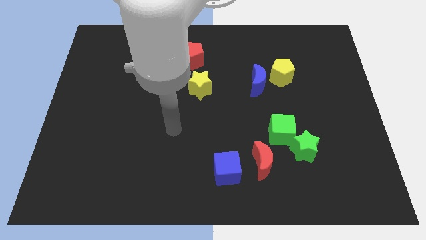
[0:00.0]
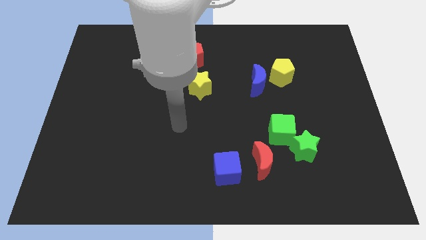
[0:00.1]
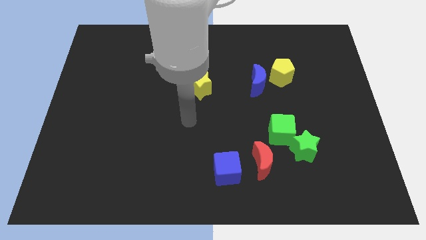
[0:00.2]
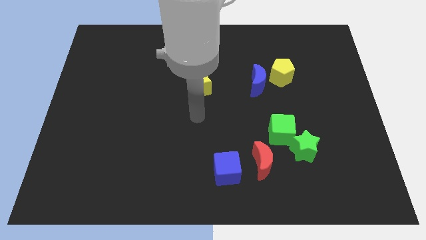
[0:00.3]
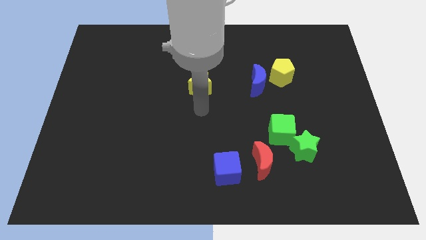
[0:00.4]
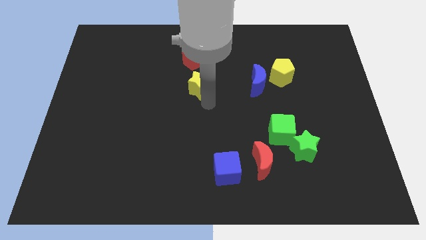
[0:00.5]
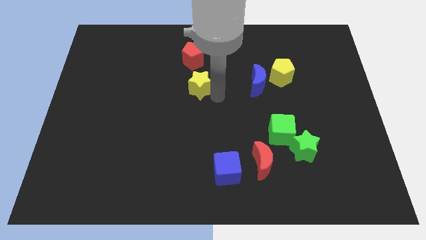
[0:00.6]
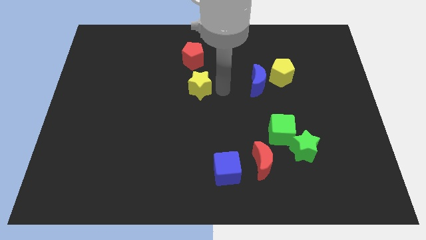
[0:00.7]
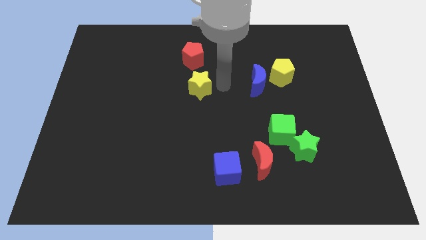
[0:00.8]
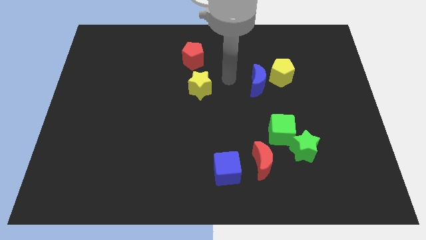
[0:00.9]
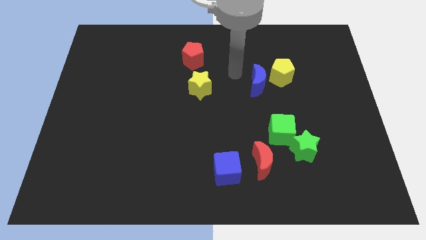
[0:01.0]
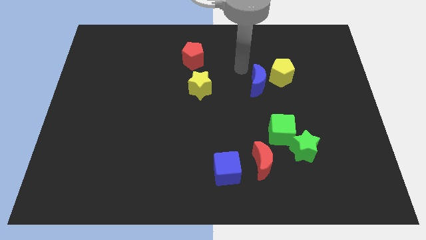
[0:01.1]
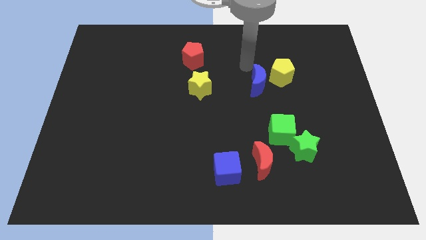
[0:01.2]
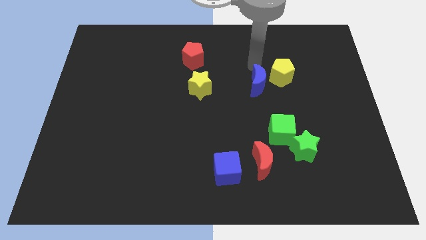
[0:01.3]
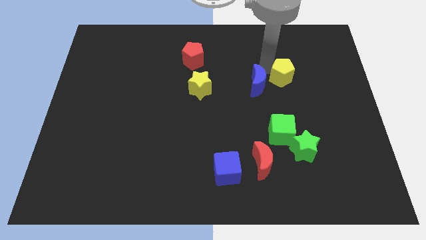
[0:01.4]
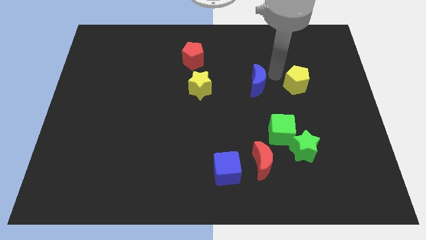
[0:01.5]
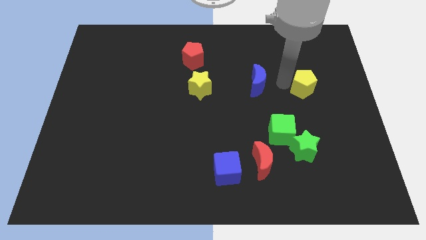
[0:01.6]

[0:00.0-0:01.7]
pull the blue moon apart from the yellow pentagon

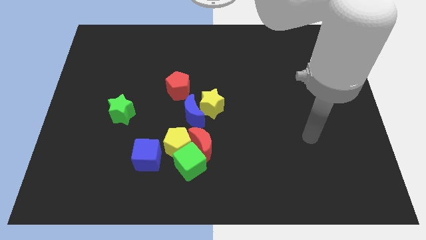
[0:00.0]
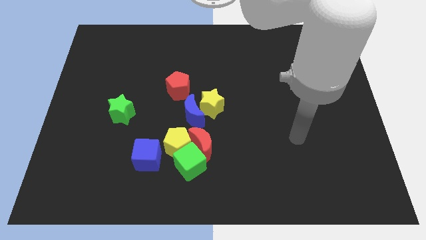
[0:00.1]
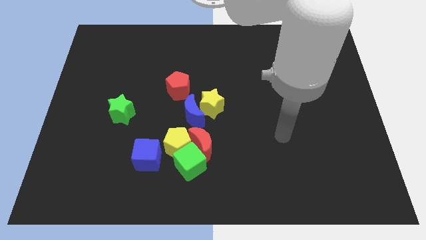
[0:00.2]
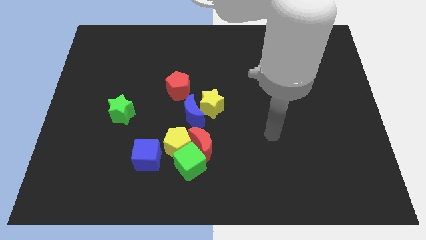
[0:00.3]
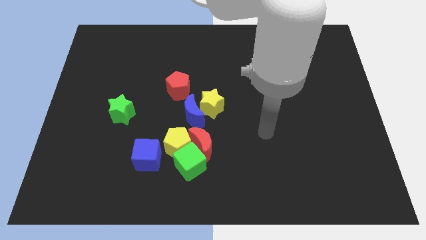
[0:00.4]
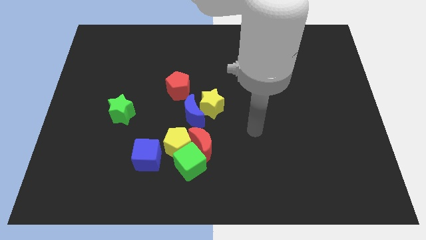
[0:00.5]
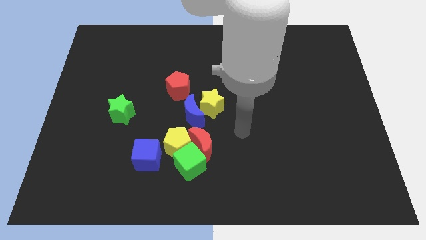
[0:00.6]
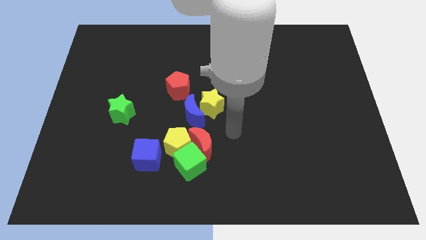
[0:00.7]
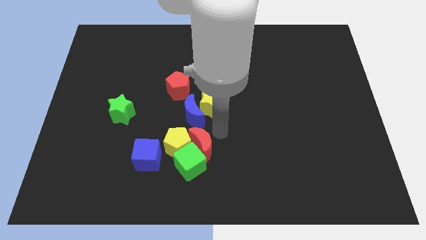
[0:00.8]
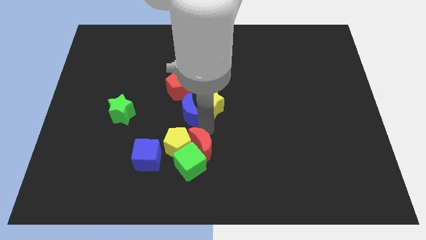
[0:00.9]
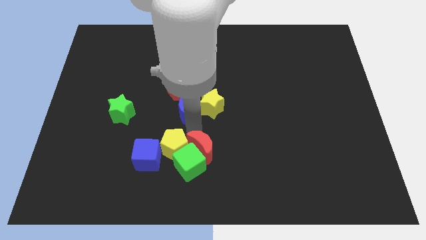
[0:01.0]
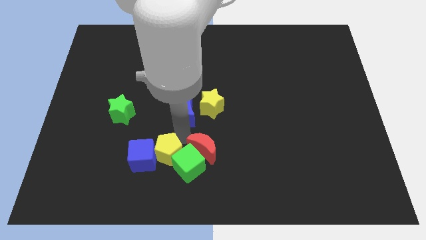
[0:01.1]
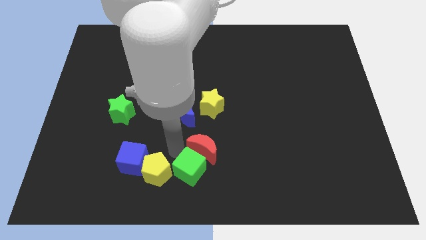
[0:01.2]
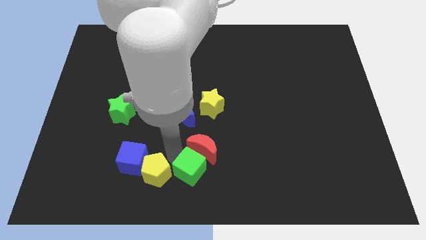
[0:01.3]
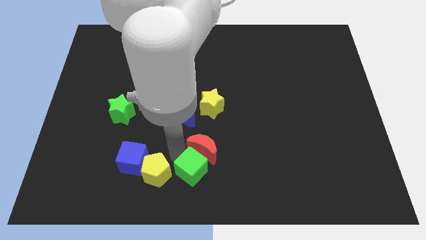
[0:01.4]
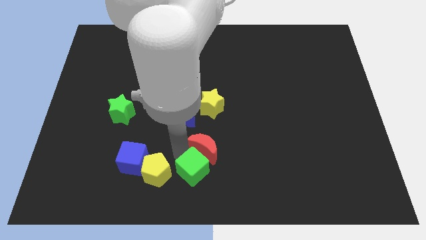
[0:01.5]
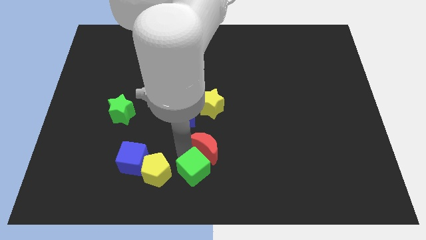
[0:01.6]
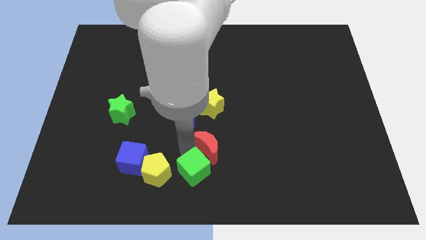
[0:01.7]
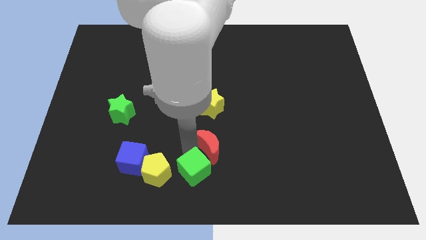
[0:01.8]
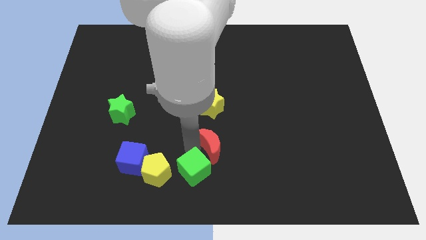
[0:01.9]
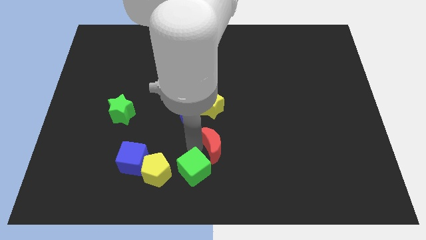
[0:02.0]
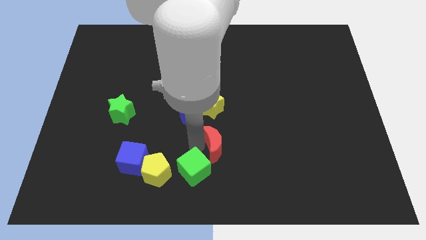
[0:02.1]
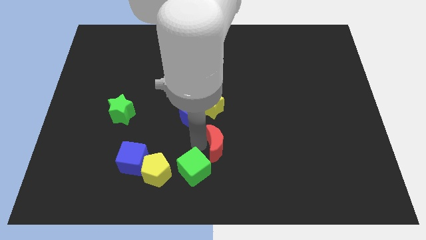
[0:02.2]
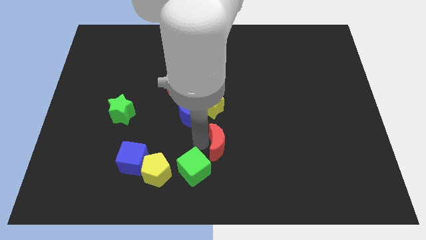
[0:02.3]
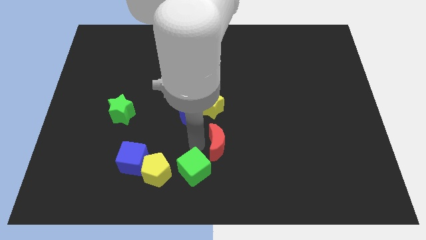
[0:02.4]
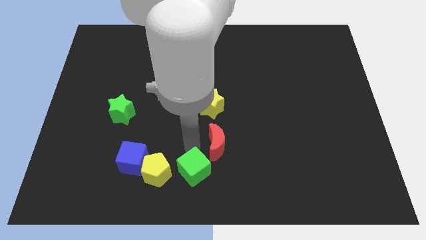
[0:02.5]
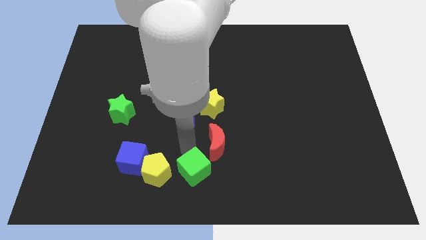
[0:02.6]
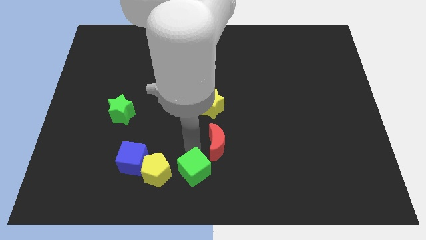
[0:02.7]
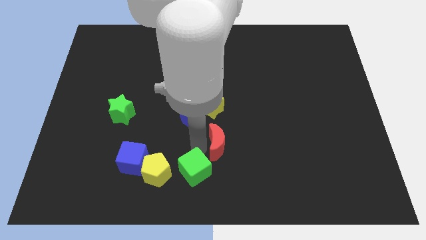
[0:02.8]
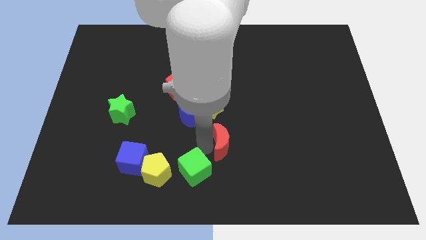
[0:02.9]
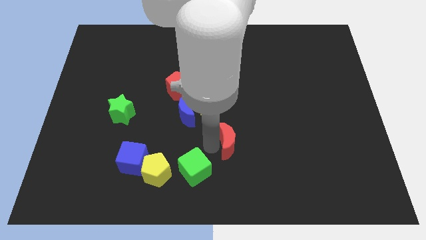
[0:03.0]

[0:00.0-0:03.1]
move the red moon away from the green cube, yellow pentagon, and blue moon

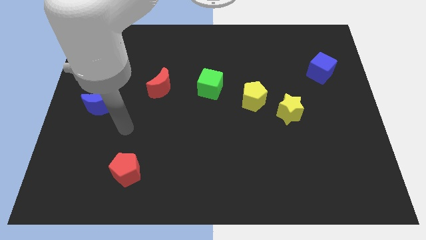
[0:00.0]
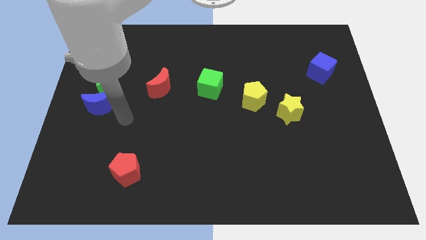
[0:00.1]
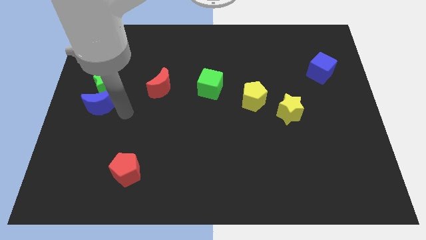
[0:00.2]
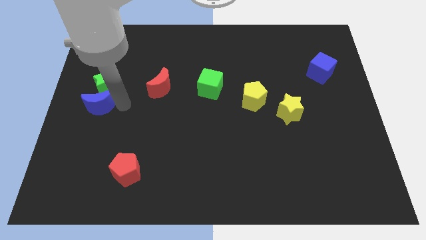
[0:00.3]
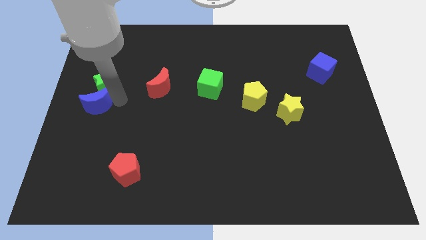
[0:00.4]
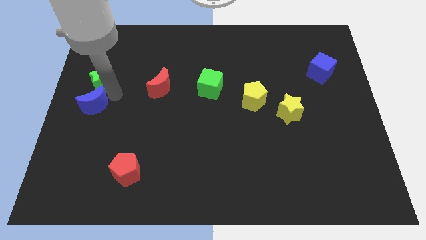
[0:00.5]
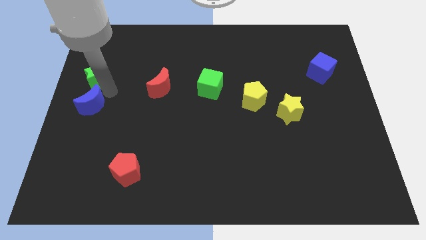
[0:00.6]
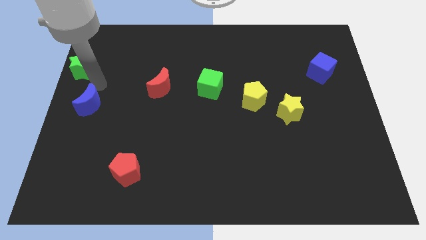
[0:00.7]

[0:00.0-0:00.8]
move the blue moon away from the green star

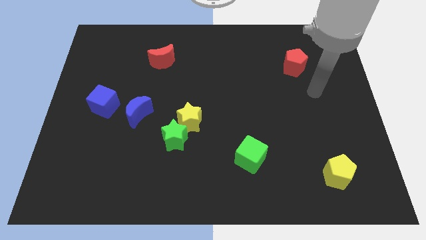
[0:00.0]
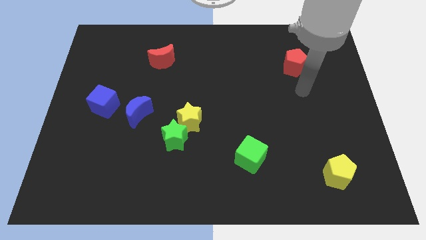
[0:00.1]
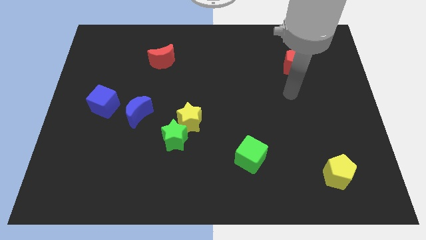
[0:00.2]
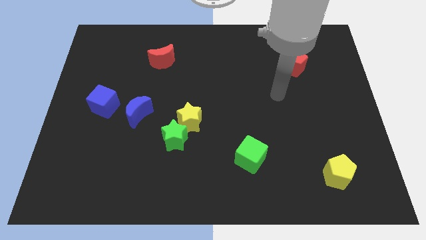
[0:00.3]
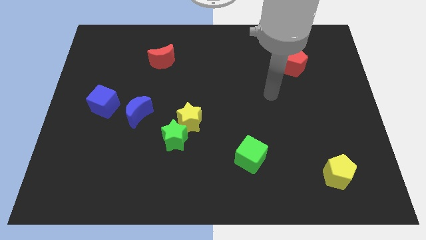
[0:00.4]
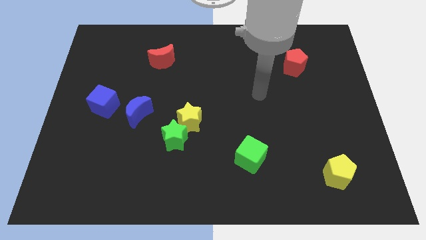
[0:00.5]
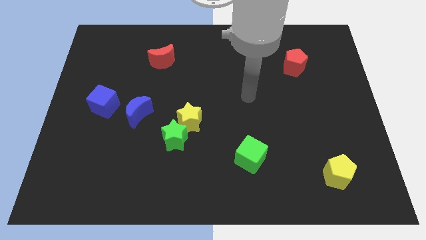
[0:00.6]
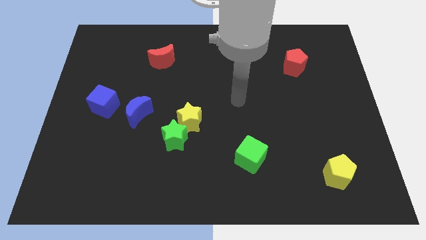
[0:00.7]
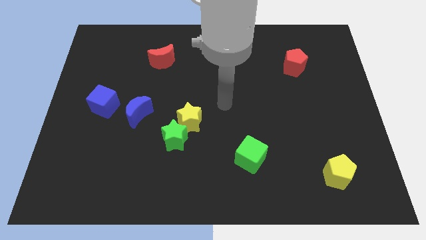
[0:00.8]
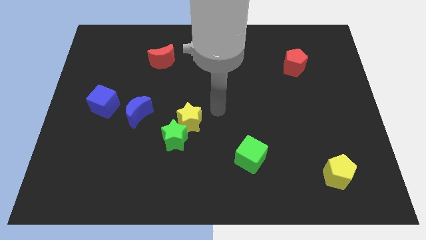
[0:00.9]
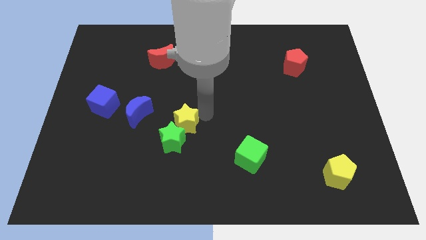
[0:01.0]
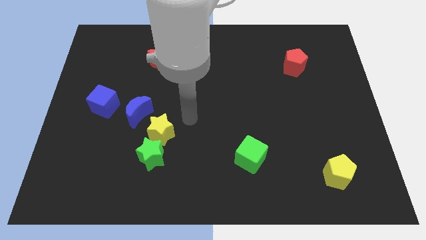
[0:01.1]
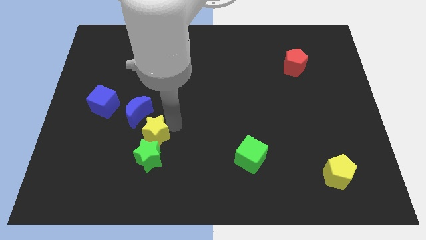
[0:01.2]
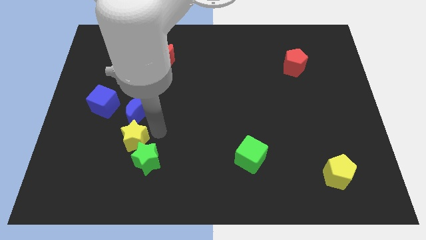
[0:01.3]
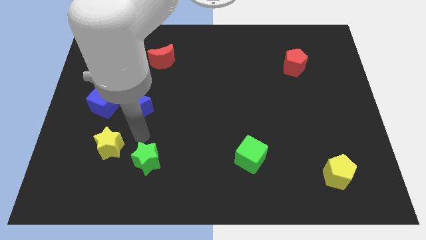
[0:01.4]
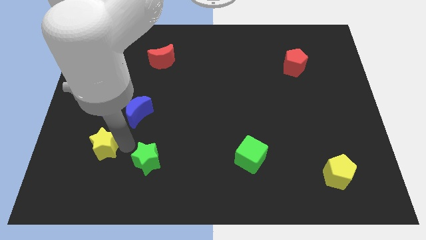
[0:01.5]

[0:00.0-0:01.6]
move the green star away from the yellow star

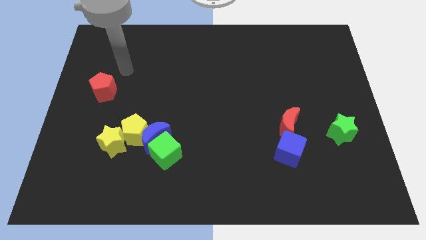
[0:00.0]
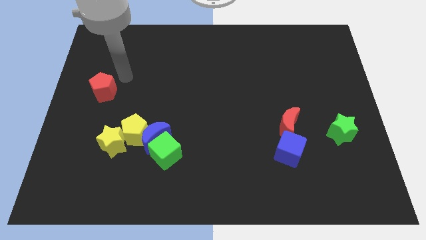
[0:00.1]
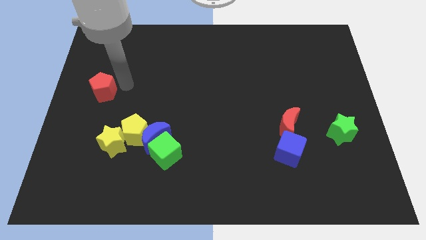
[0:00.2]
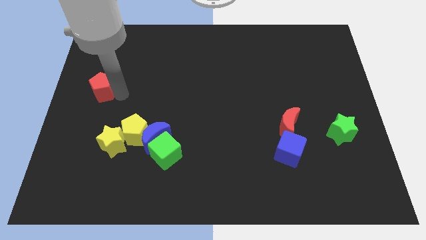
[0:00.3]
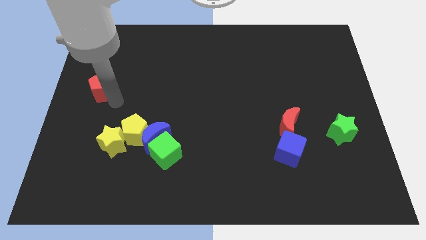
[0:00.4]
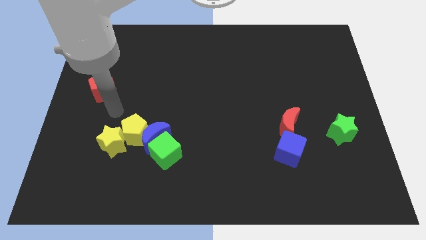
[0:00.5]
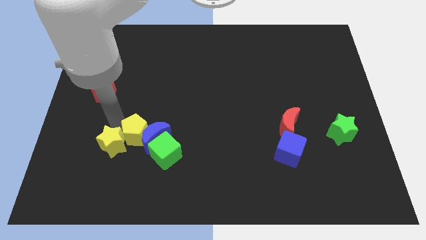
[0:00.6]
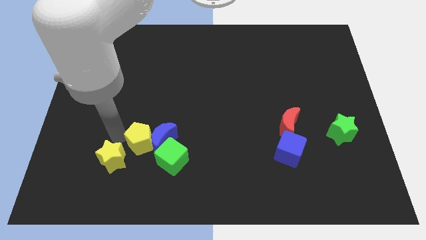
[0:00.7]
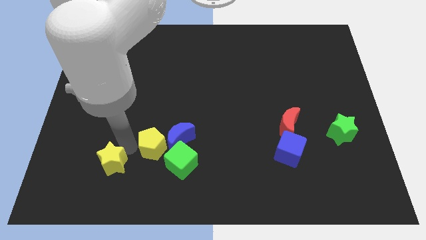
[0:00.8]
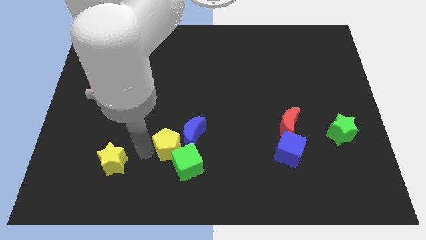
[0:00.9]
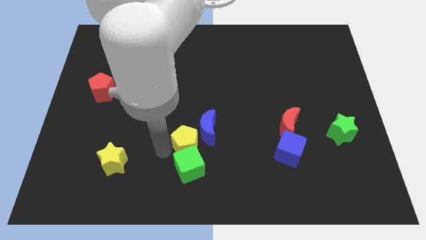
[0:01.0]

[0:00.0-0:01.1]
separate the blue moon from the clump

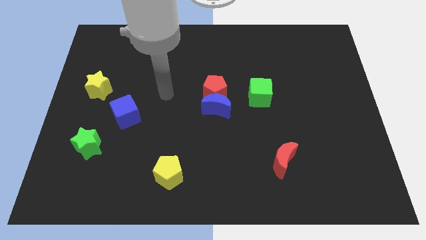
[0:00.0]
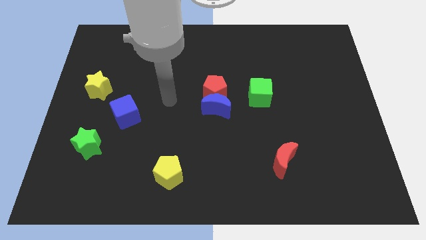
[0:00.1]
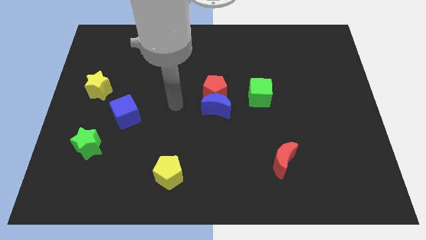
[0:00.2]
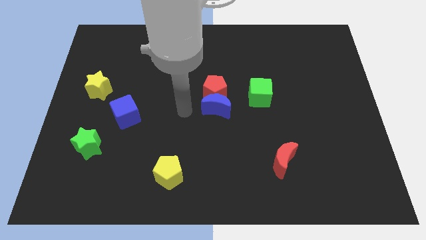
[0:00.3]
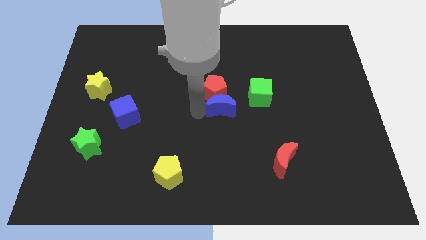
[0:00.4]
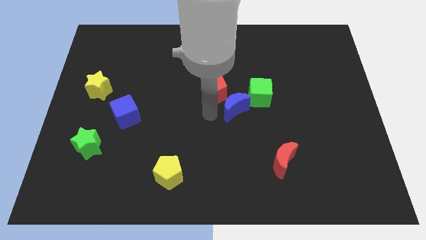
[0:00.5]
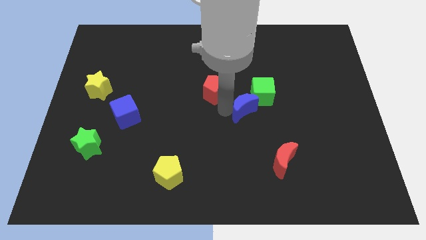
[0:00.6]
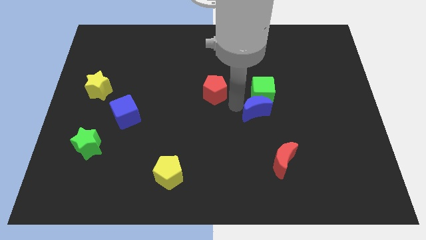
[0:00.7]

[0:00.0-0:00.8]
pull the red pentagon apart from the blue moon

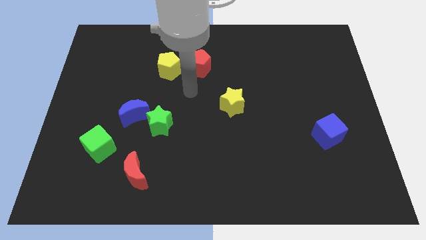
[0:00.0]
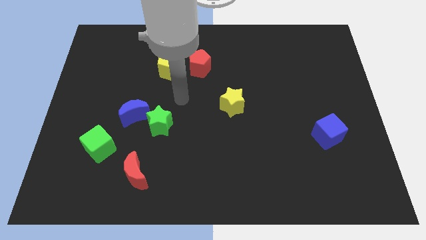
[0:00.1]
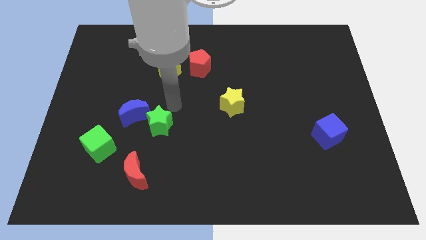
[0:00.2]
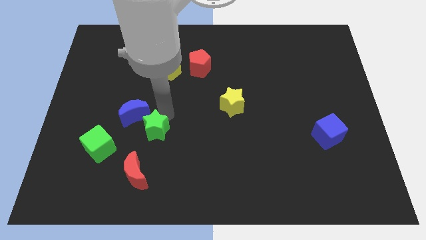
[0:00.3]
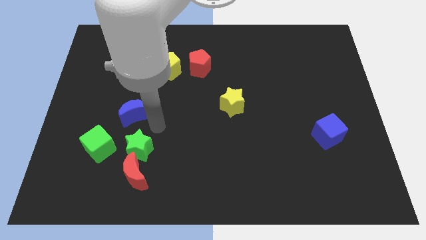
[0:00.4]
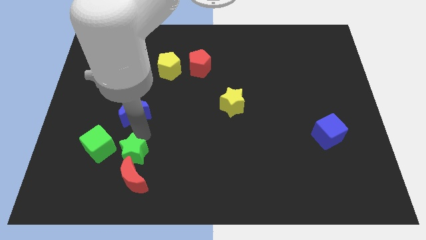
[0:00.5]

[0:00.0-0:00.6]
pull the blue moon apart from the green star
